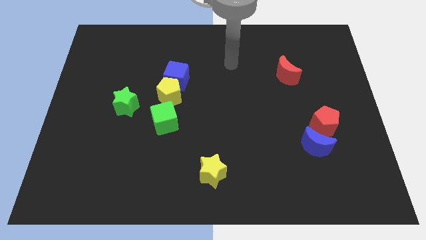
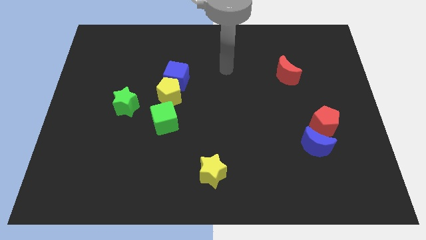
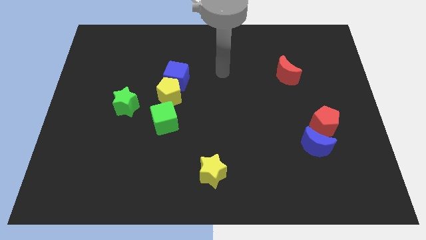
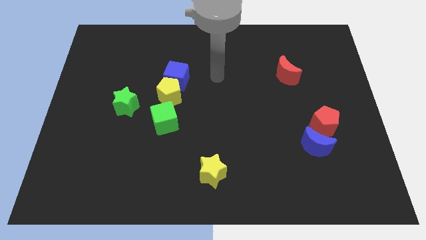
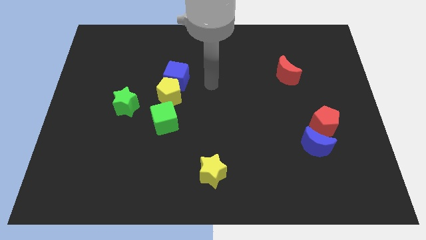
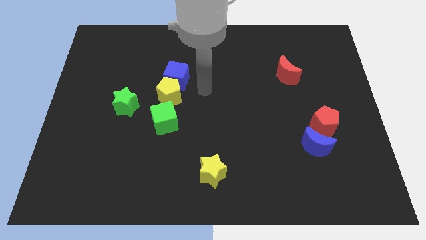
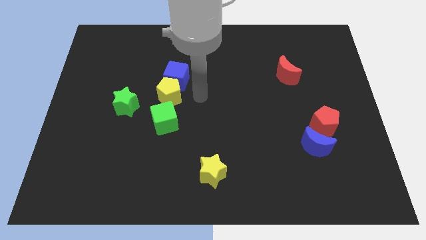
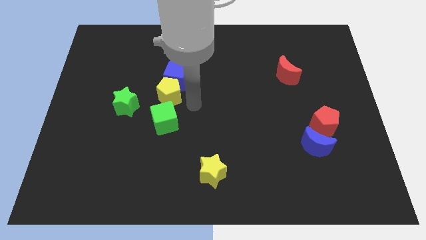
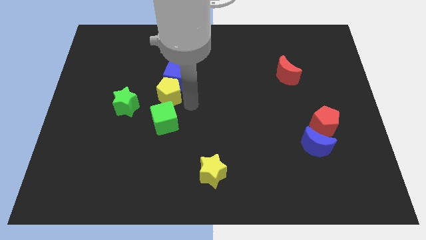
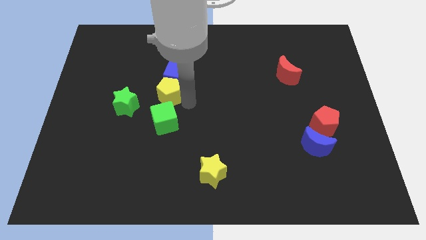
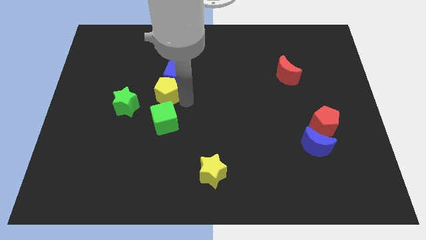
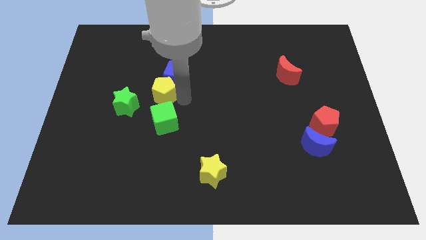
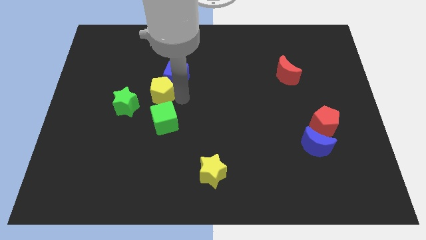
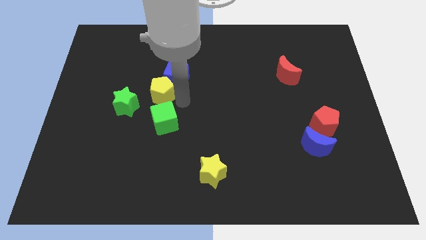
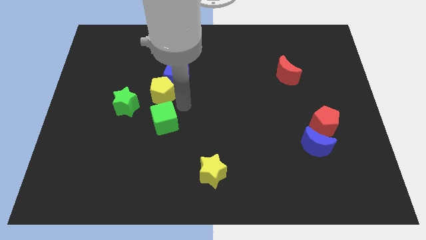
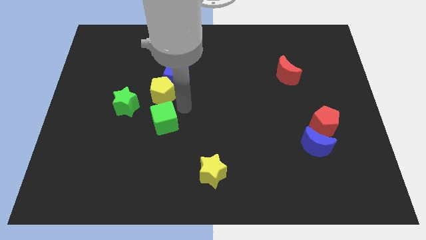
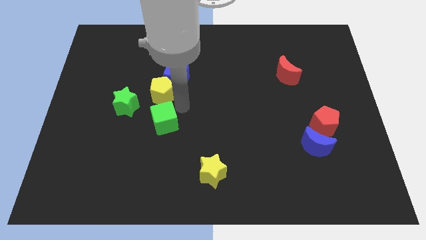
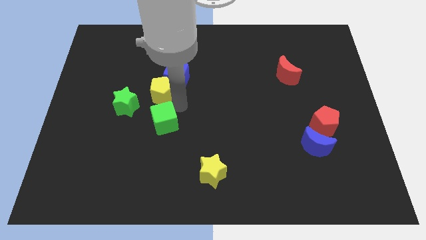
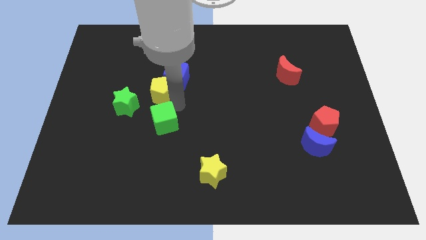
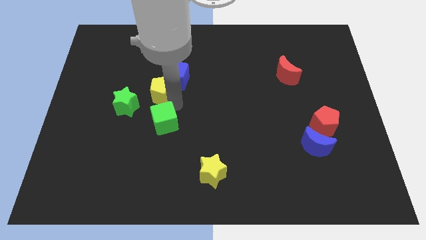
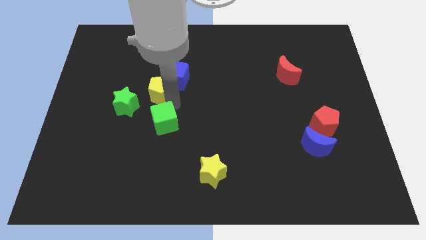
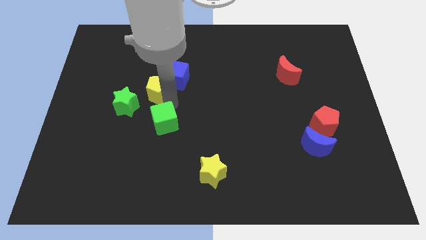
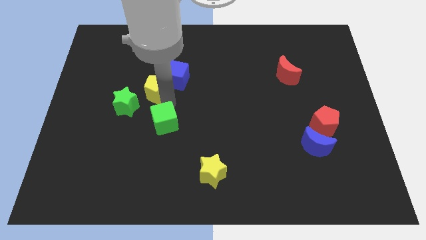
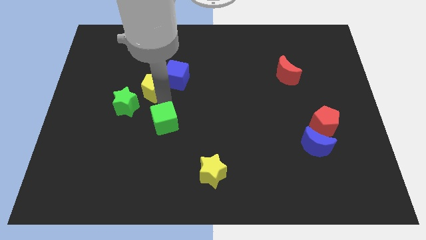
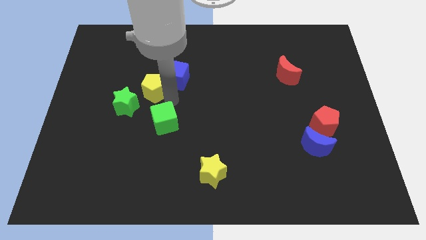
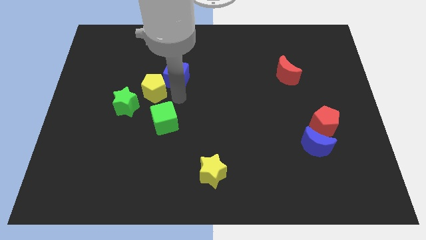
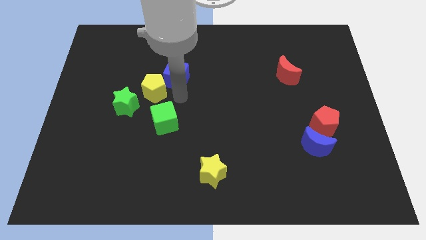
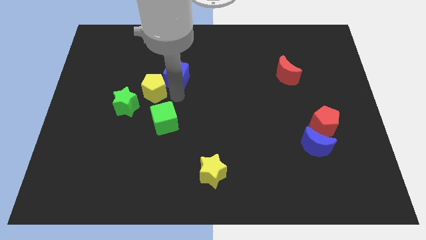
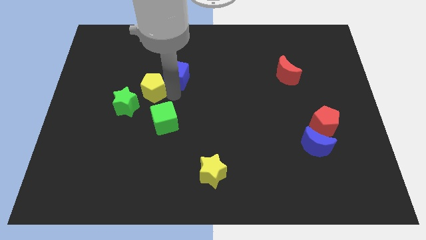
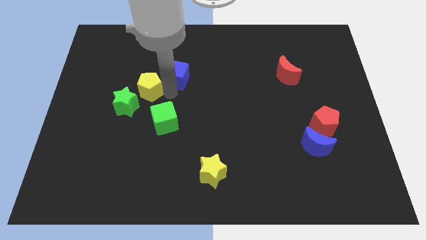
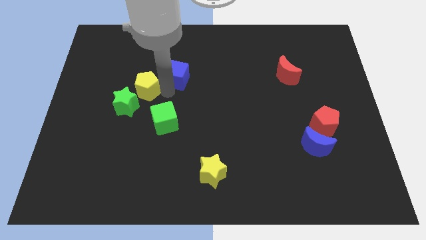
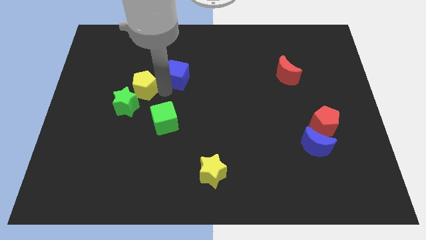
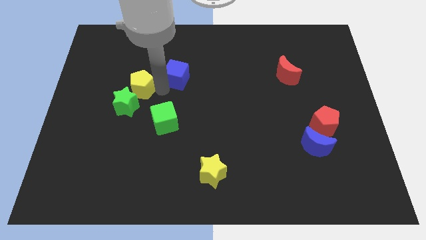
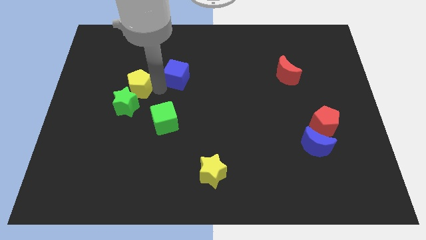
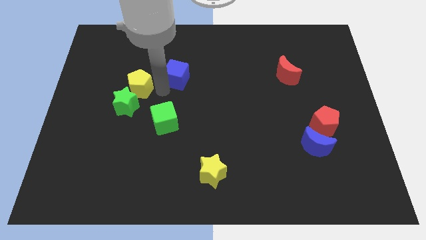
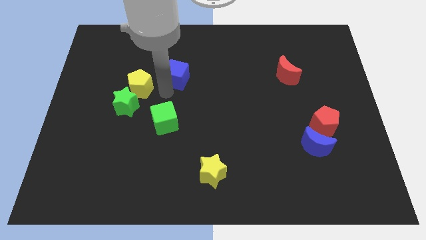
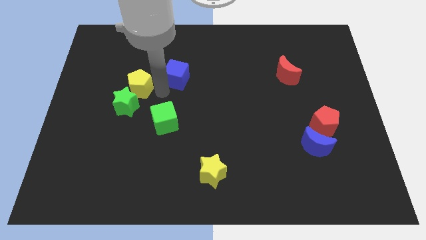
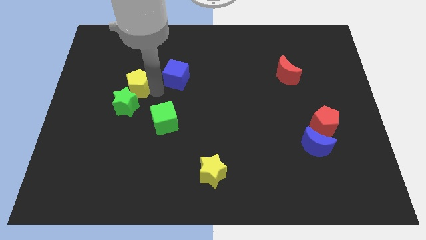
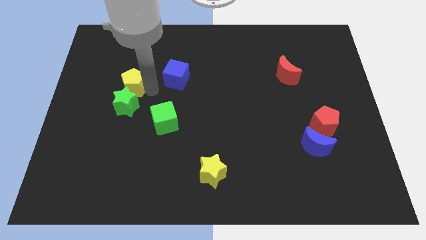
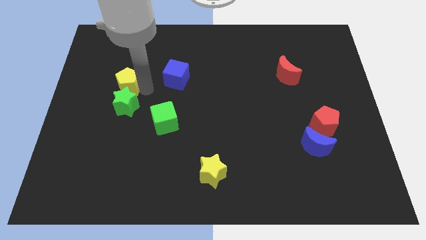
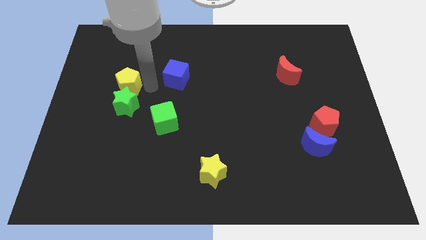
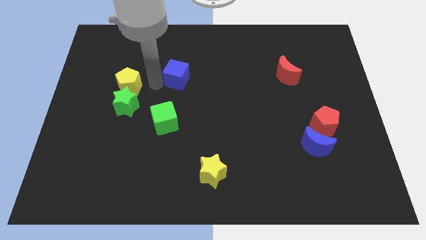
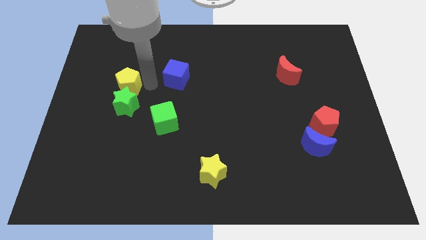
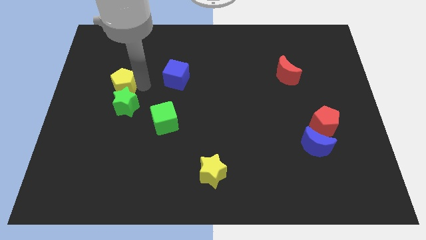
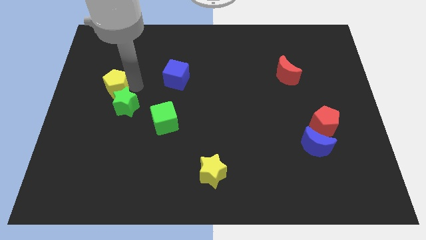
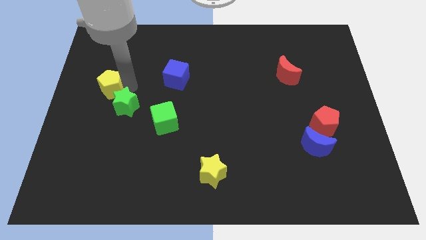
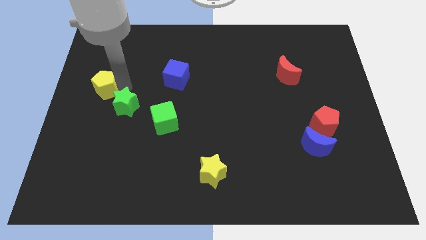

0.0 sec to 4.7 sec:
put the yellow pentagon to the left side of the board

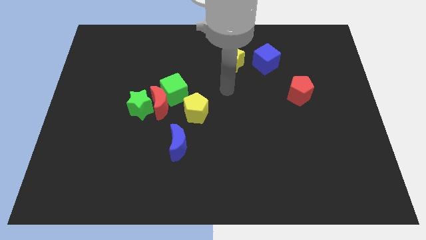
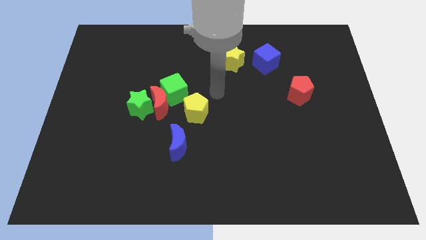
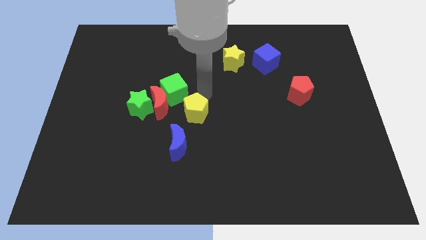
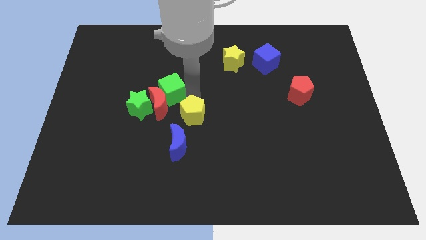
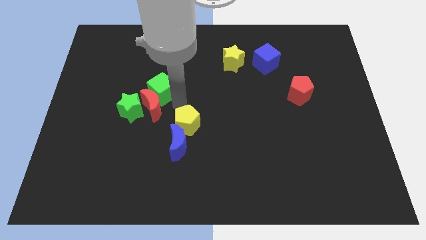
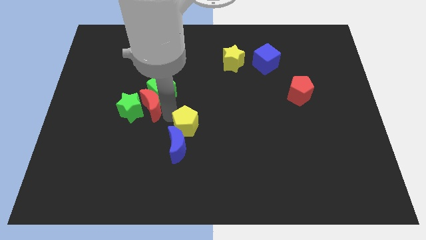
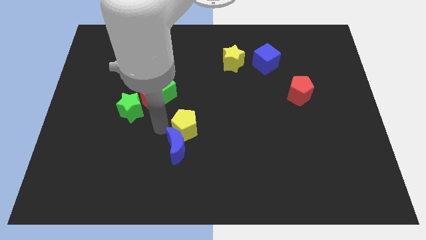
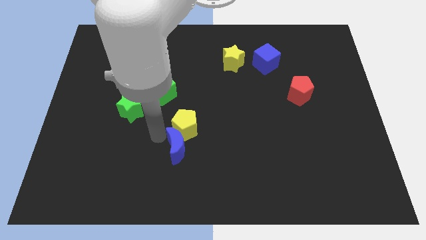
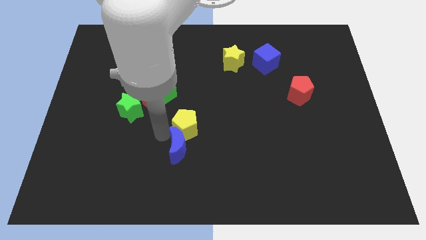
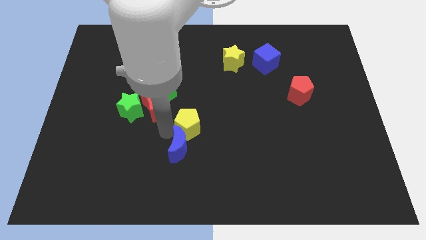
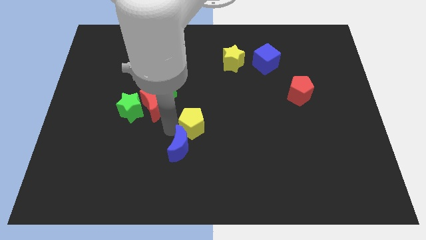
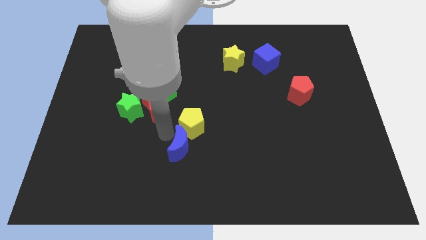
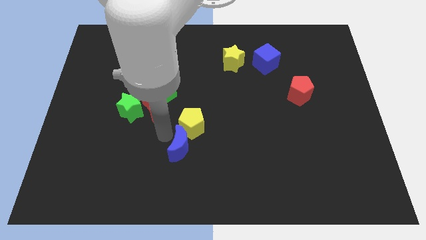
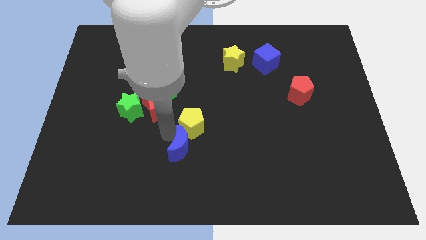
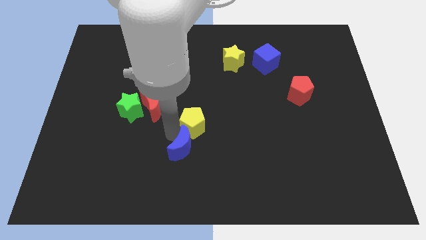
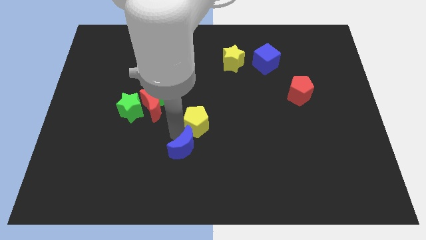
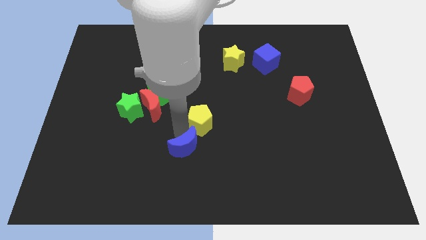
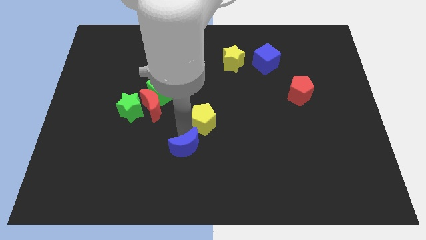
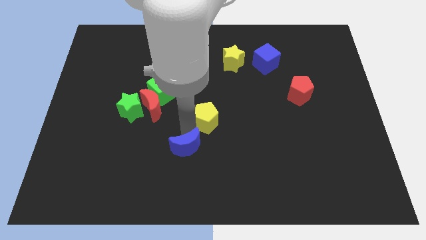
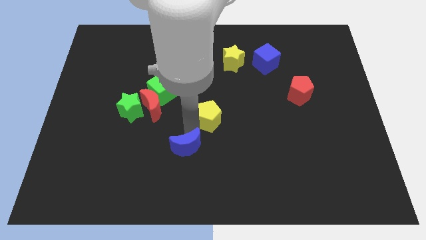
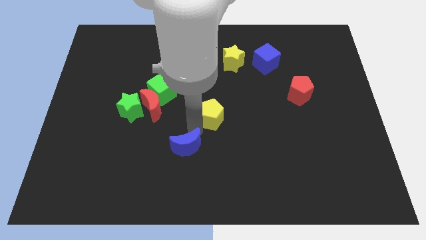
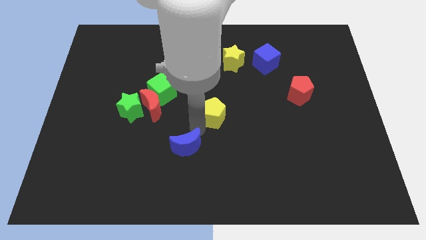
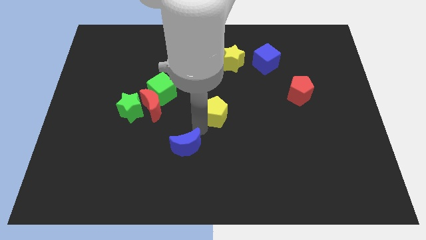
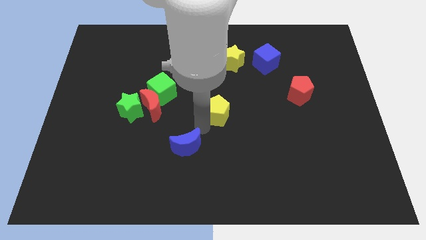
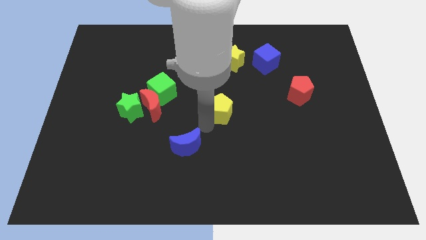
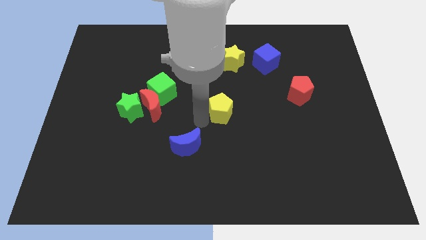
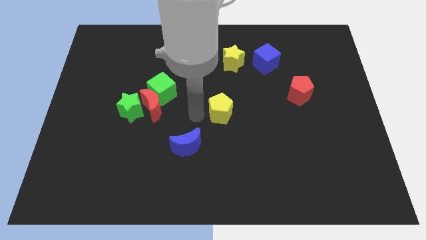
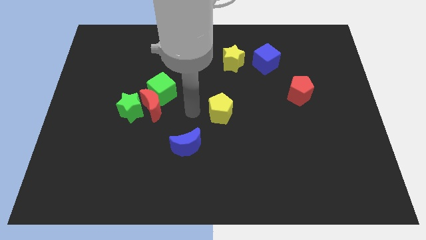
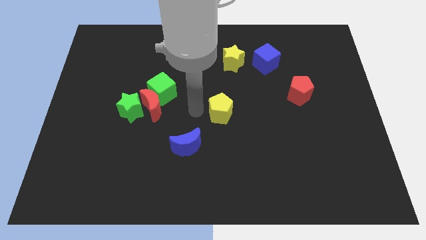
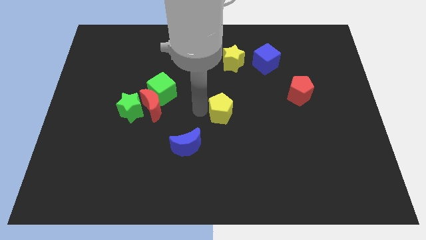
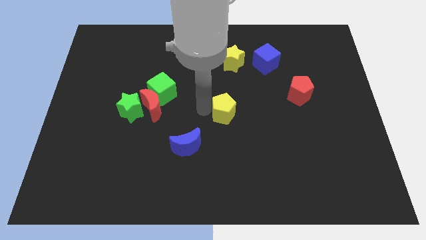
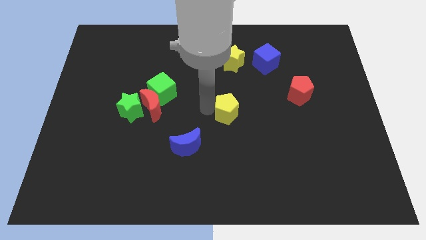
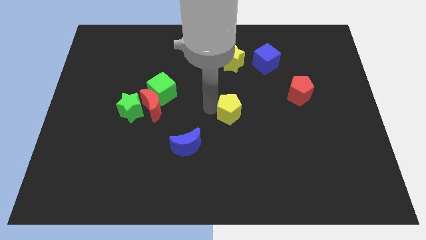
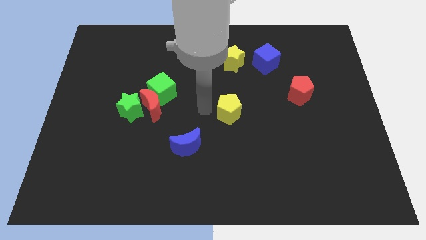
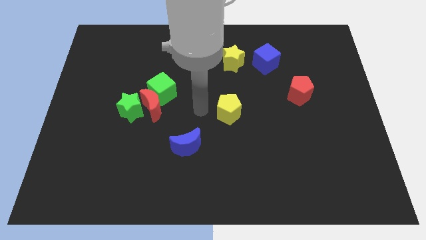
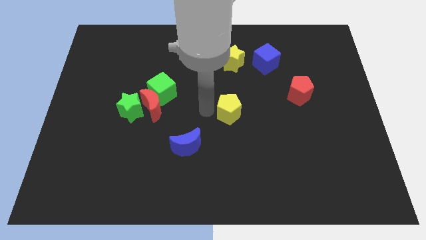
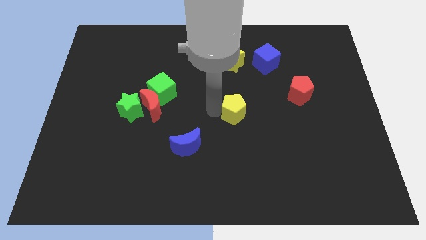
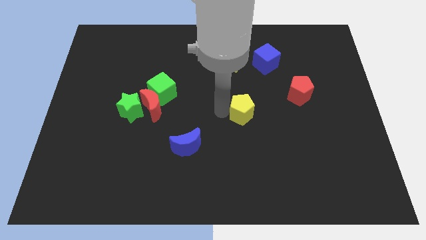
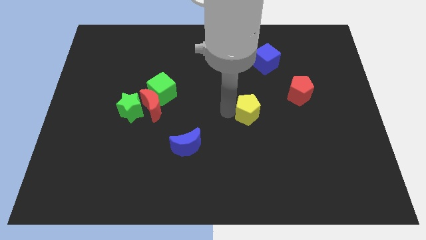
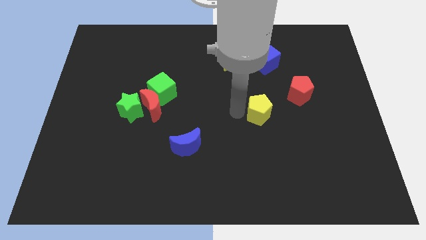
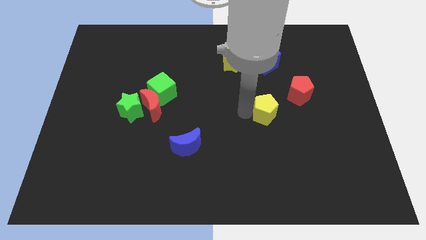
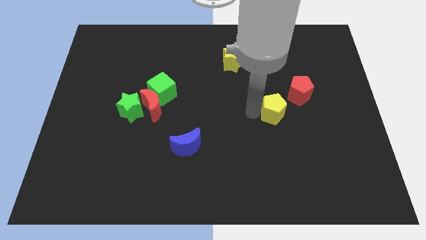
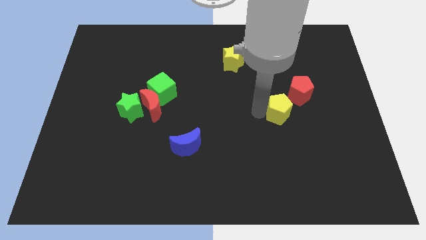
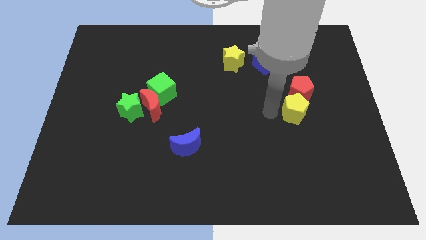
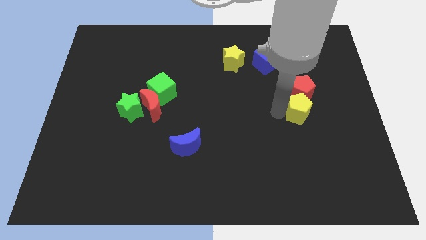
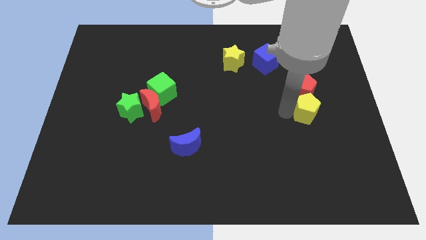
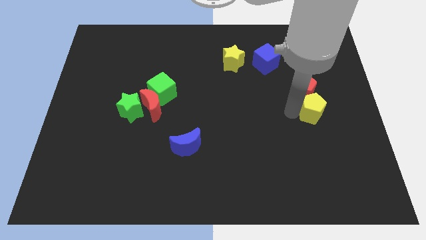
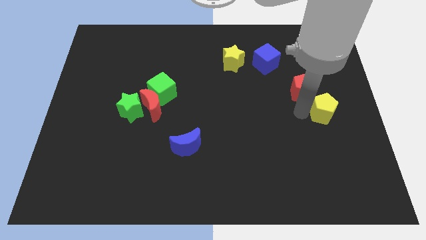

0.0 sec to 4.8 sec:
move the yellow pentagon to the right side
